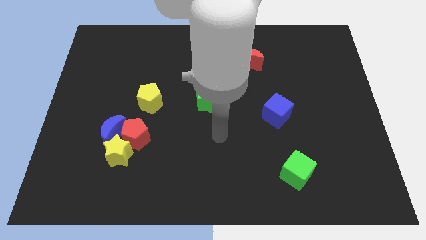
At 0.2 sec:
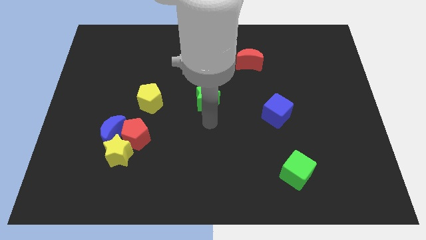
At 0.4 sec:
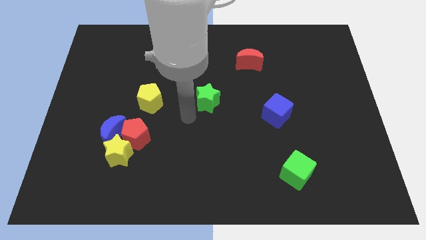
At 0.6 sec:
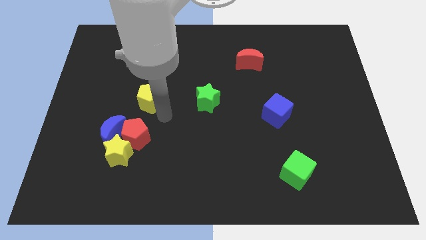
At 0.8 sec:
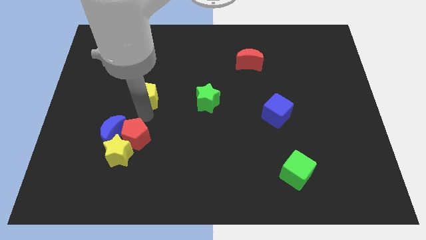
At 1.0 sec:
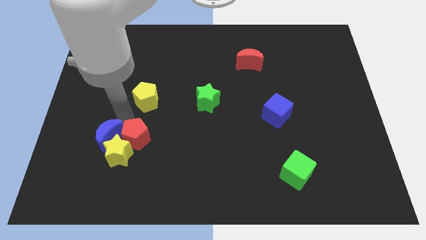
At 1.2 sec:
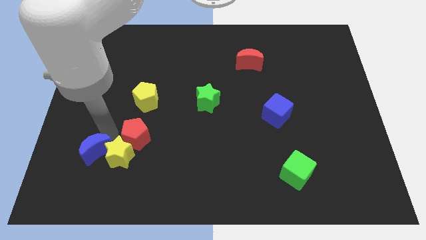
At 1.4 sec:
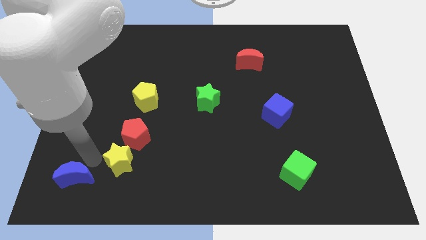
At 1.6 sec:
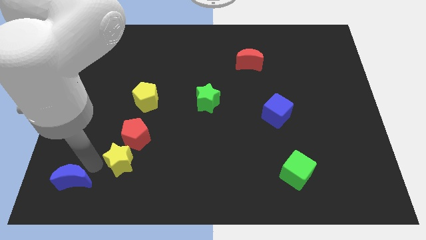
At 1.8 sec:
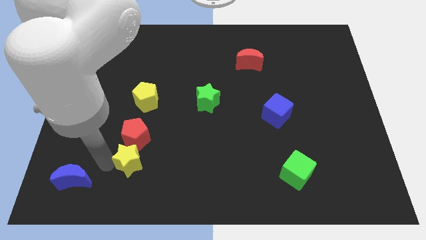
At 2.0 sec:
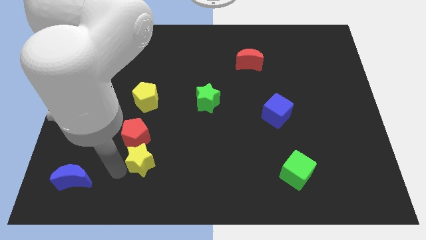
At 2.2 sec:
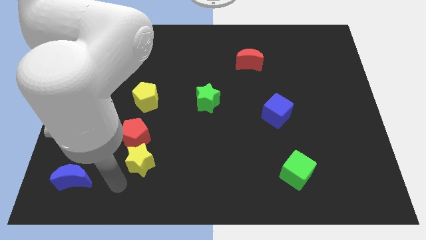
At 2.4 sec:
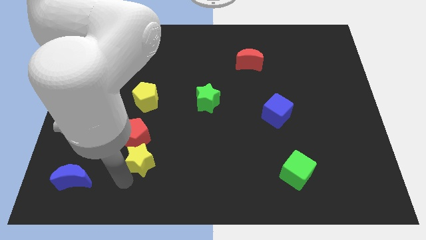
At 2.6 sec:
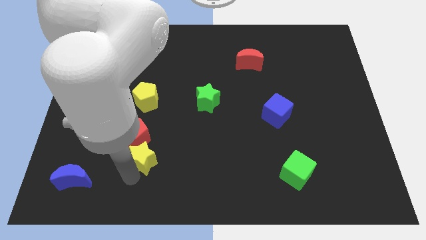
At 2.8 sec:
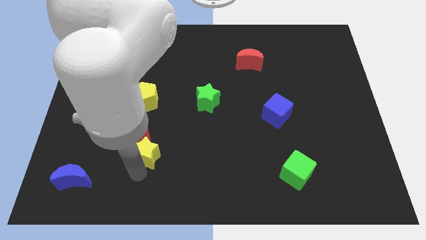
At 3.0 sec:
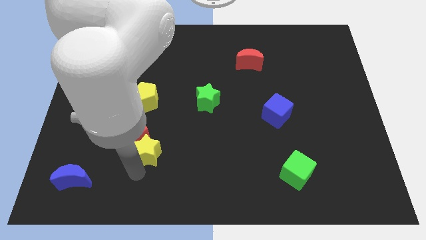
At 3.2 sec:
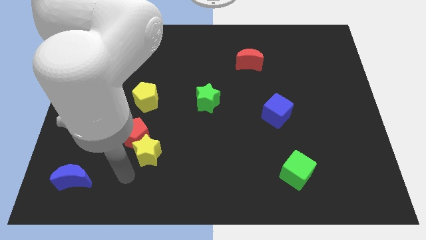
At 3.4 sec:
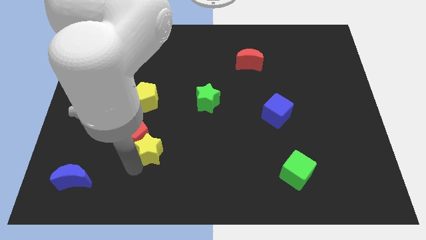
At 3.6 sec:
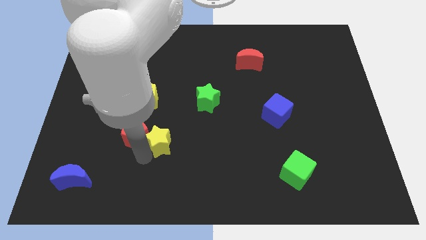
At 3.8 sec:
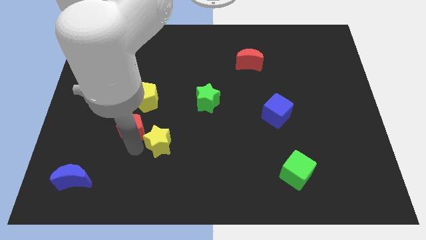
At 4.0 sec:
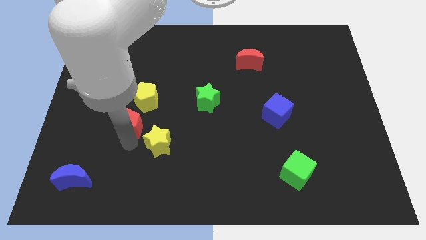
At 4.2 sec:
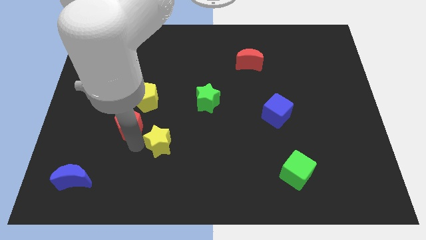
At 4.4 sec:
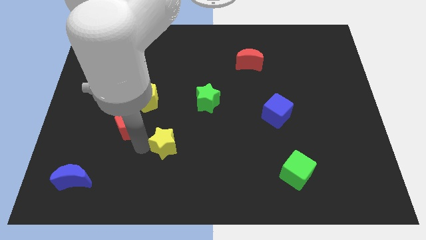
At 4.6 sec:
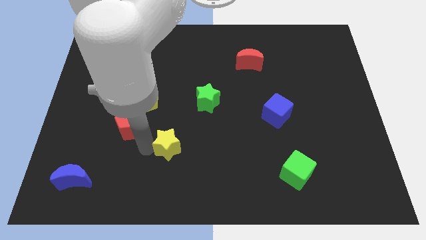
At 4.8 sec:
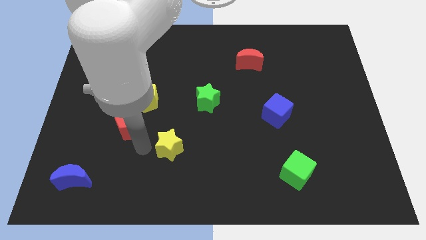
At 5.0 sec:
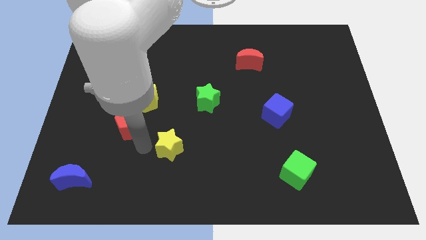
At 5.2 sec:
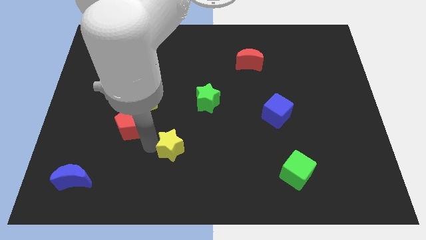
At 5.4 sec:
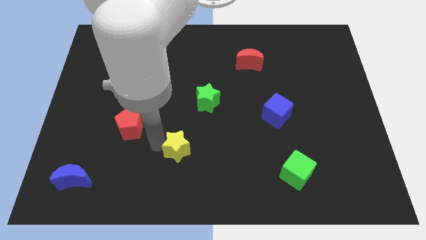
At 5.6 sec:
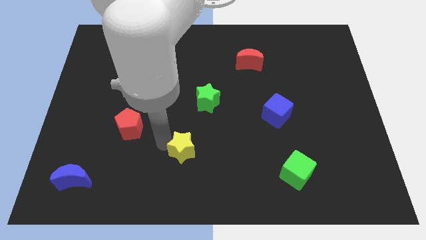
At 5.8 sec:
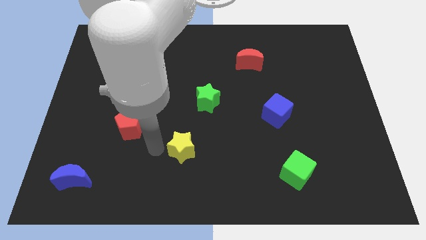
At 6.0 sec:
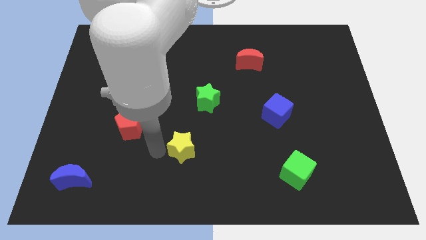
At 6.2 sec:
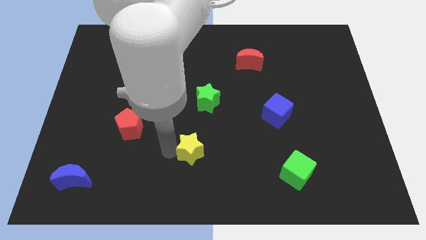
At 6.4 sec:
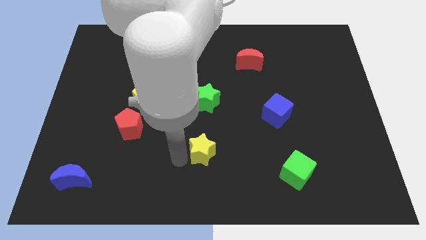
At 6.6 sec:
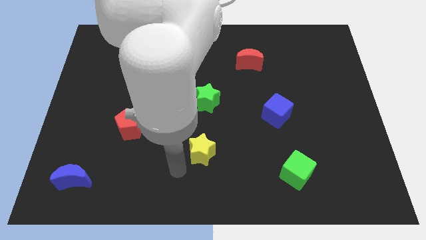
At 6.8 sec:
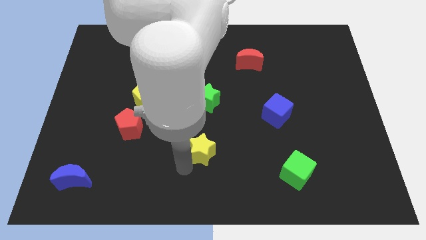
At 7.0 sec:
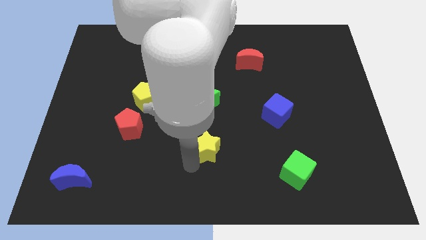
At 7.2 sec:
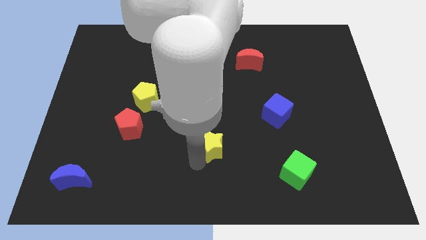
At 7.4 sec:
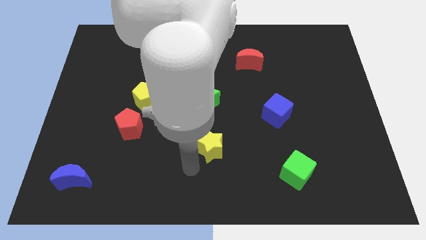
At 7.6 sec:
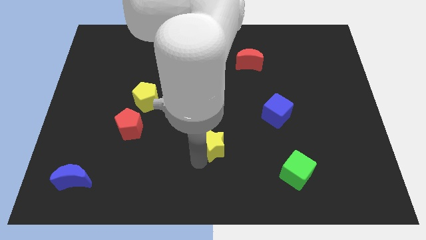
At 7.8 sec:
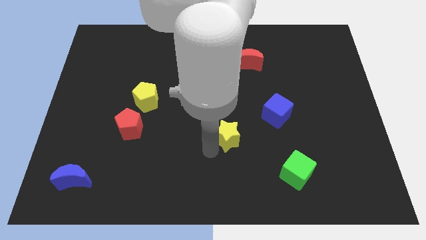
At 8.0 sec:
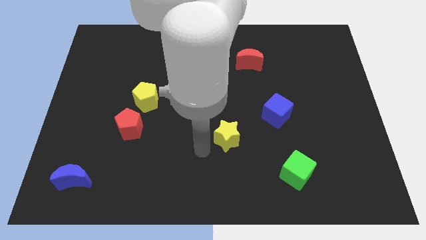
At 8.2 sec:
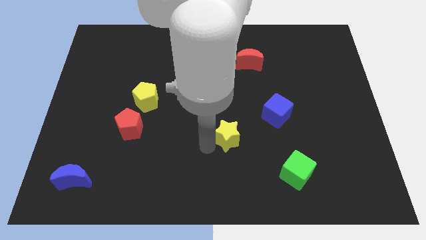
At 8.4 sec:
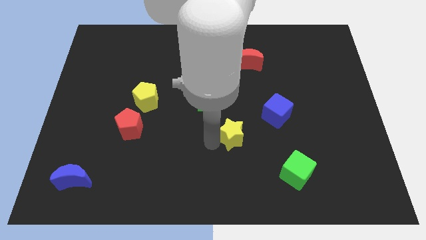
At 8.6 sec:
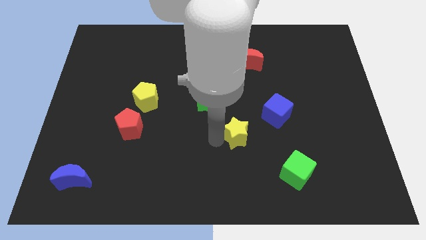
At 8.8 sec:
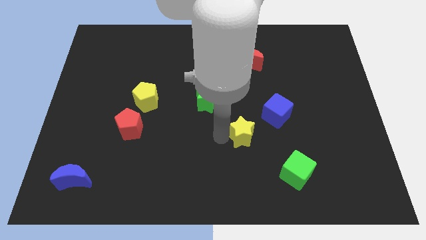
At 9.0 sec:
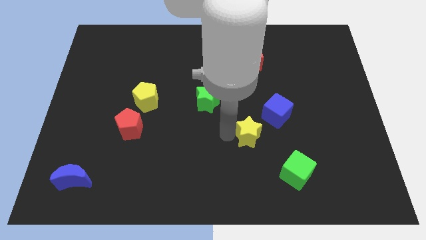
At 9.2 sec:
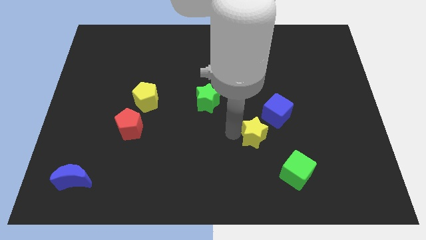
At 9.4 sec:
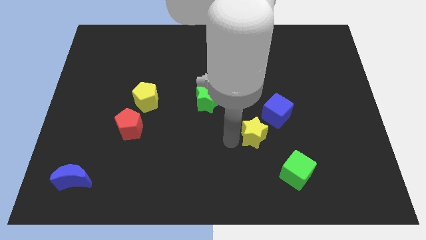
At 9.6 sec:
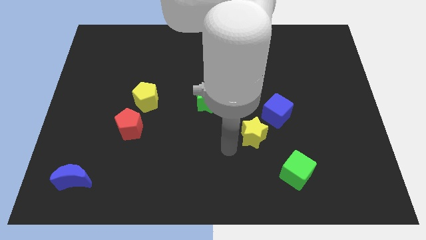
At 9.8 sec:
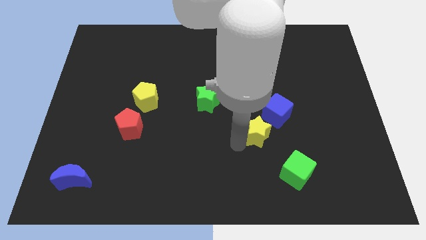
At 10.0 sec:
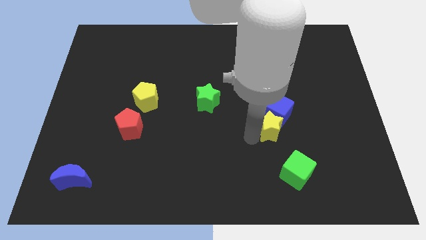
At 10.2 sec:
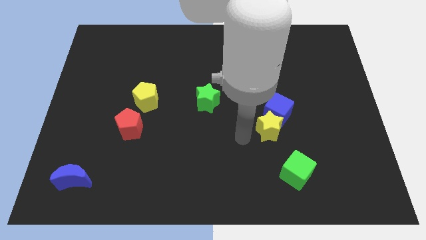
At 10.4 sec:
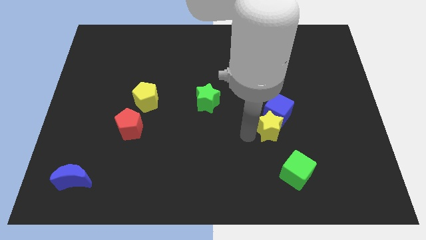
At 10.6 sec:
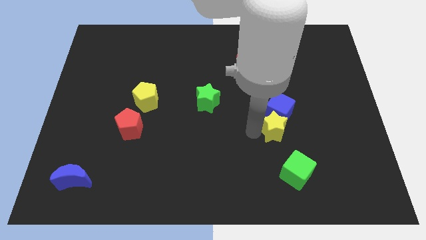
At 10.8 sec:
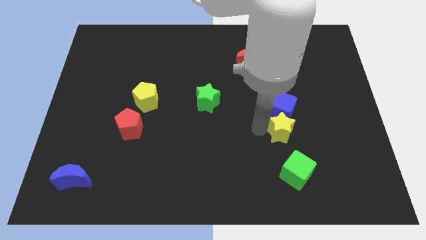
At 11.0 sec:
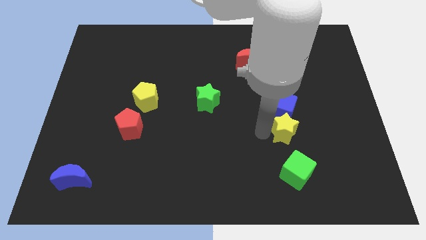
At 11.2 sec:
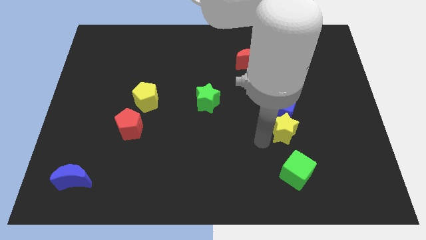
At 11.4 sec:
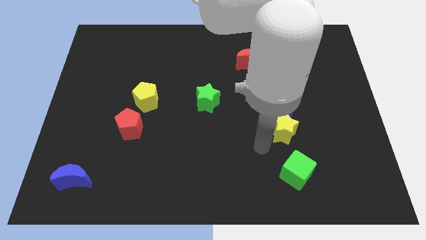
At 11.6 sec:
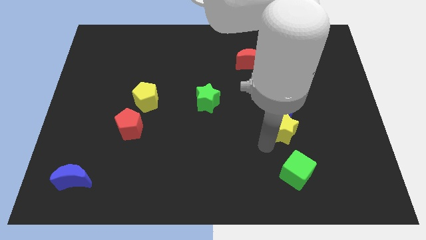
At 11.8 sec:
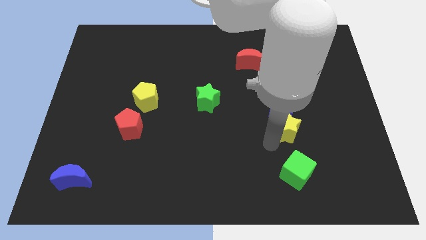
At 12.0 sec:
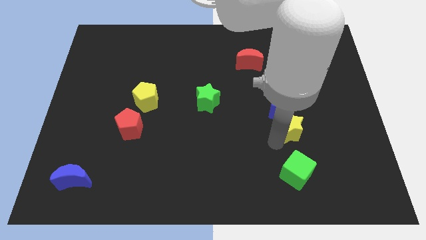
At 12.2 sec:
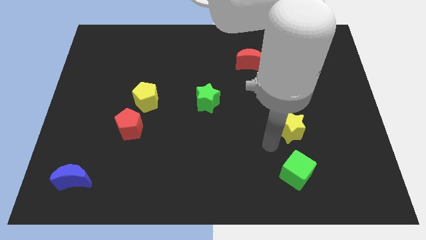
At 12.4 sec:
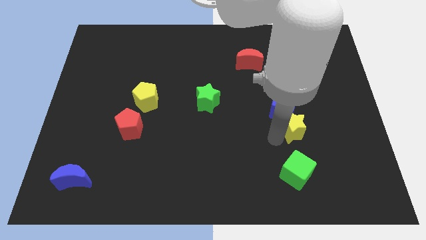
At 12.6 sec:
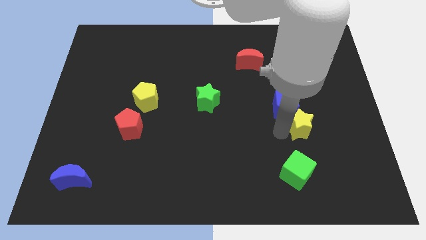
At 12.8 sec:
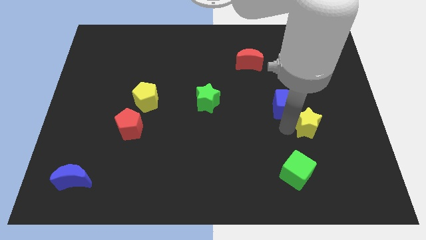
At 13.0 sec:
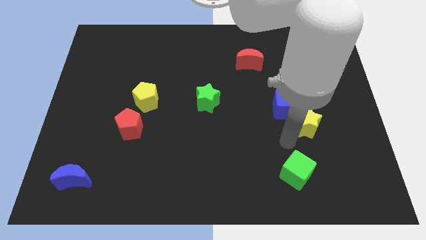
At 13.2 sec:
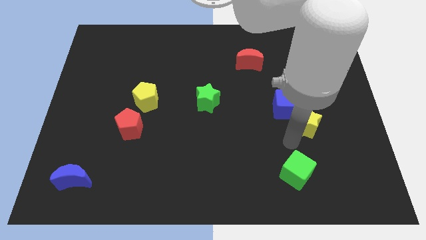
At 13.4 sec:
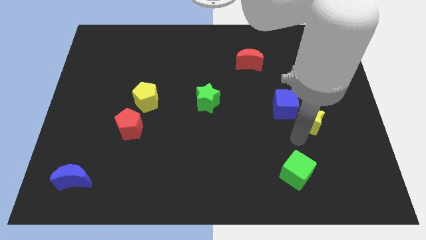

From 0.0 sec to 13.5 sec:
slide the yellow star to the right of the blue cube

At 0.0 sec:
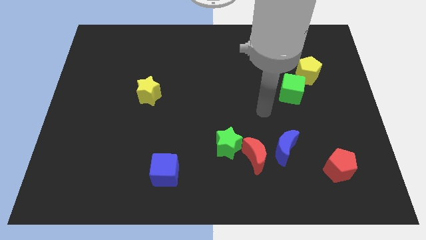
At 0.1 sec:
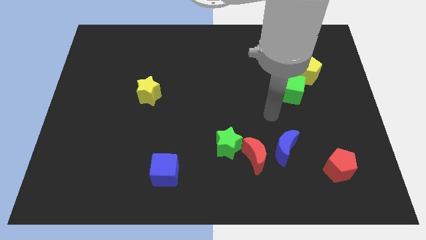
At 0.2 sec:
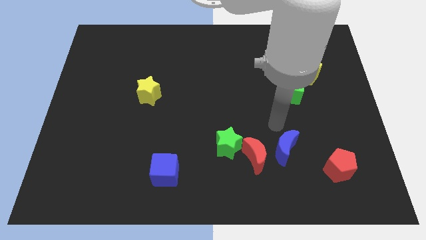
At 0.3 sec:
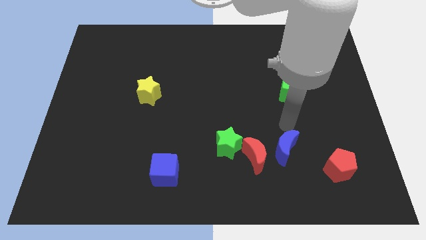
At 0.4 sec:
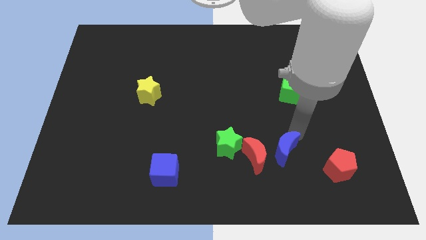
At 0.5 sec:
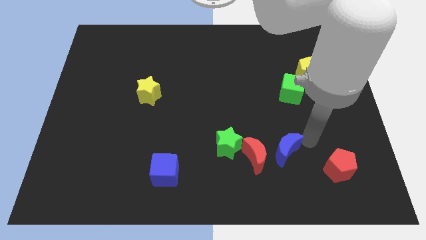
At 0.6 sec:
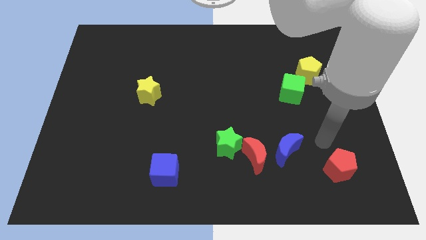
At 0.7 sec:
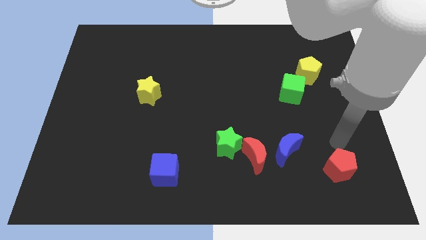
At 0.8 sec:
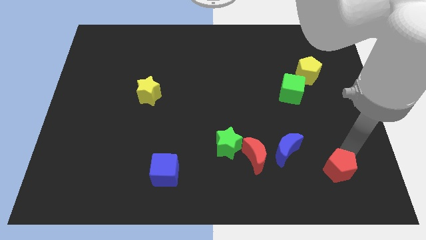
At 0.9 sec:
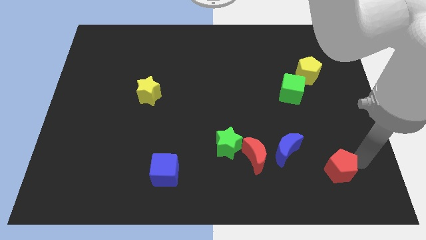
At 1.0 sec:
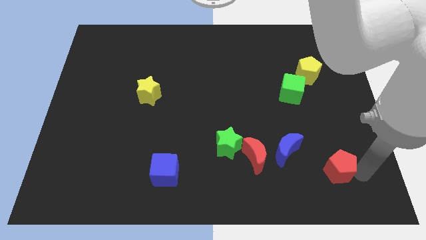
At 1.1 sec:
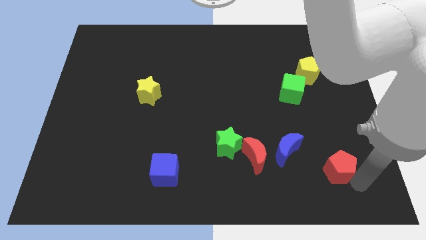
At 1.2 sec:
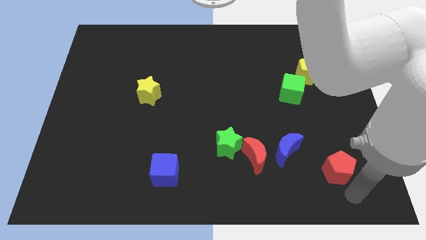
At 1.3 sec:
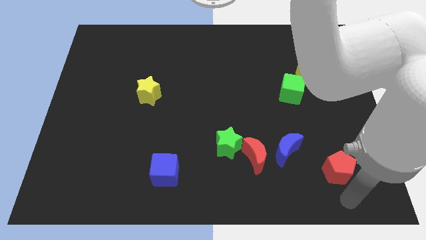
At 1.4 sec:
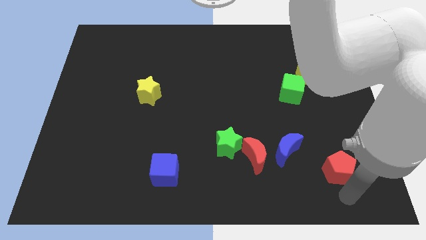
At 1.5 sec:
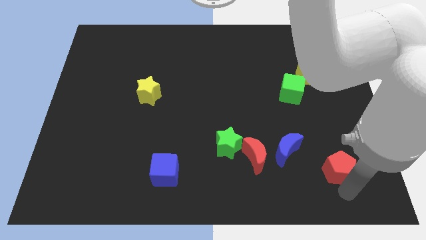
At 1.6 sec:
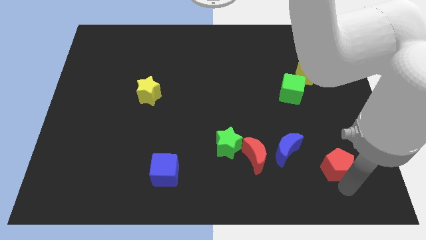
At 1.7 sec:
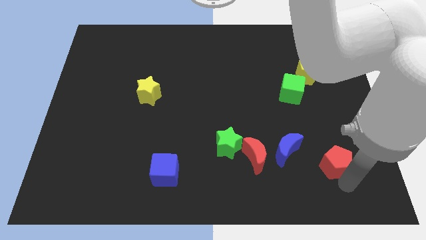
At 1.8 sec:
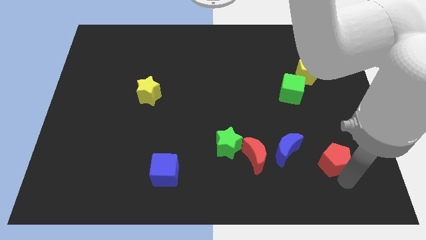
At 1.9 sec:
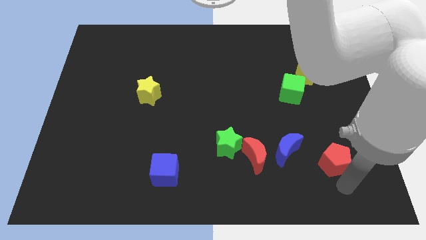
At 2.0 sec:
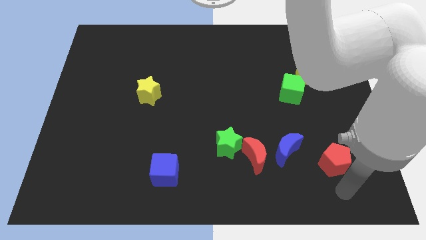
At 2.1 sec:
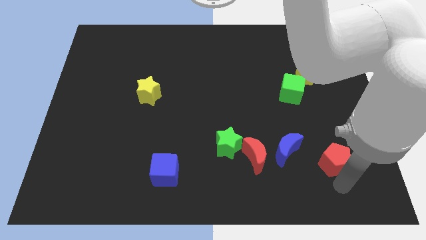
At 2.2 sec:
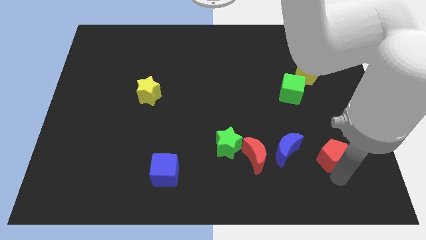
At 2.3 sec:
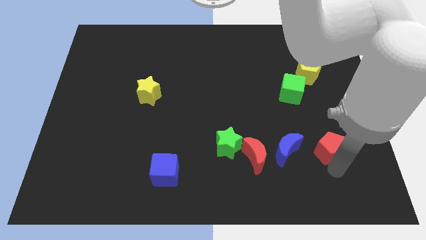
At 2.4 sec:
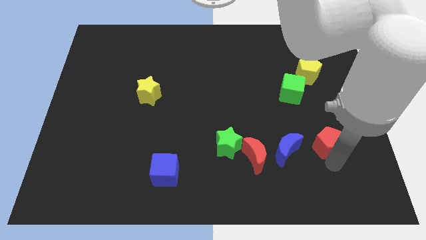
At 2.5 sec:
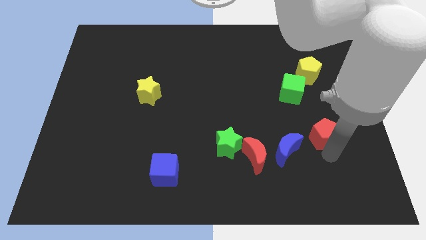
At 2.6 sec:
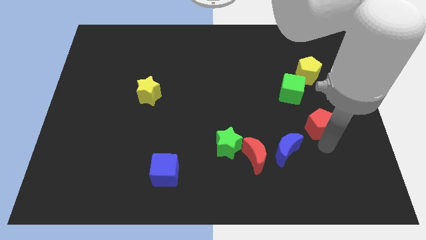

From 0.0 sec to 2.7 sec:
put the red pentagon to the bottom right of the green cube
